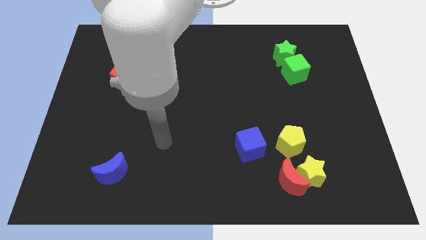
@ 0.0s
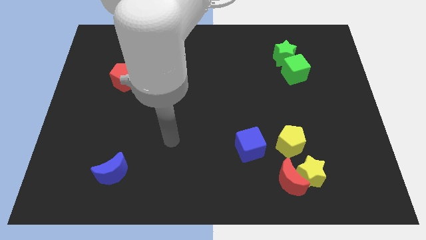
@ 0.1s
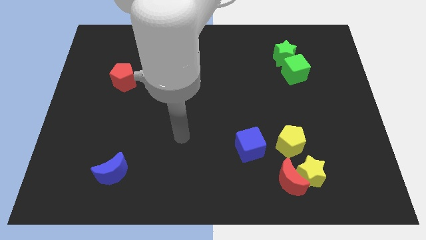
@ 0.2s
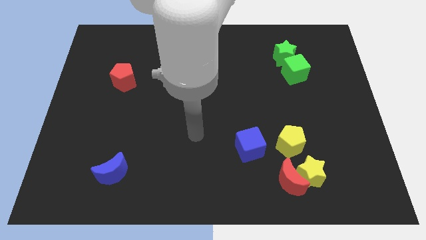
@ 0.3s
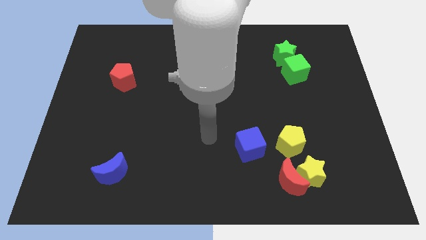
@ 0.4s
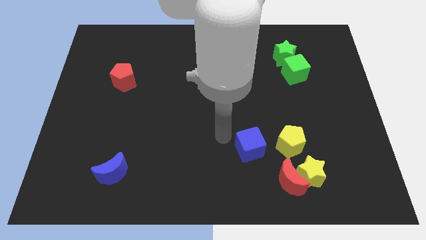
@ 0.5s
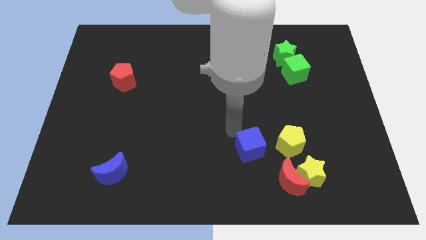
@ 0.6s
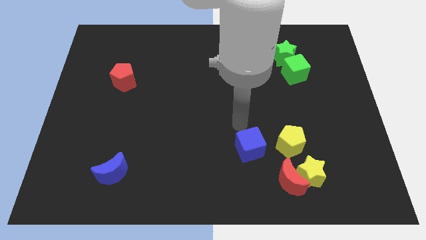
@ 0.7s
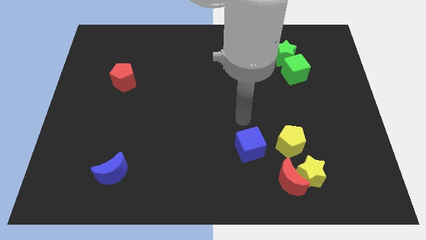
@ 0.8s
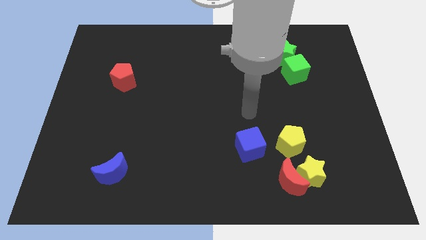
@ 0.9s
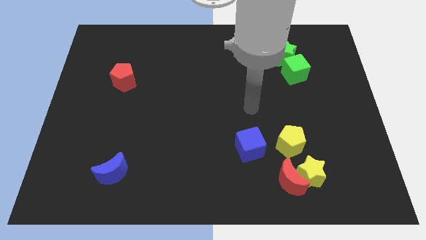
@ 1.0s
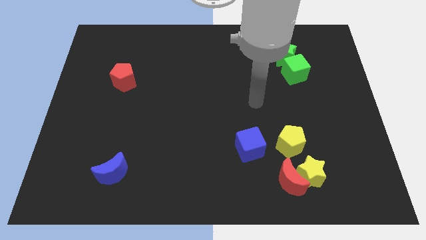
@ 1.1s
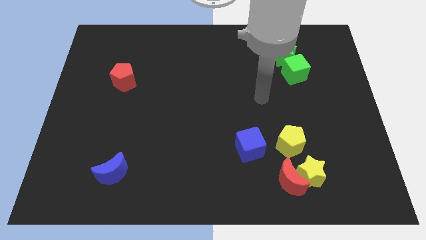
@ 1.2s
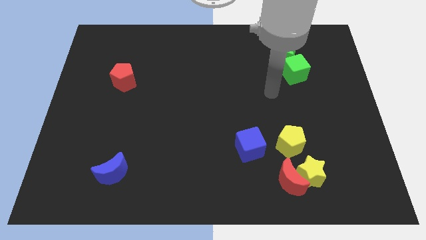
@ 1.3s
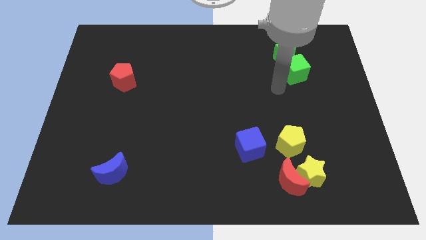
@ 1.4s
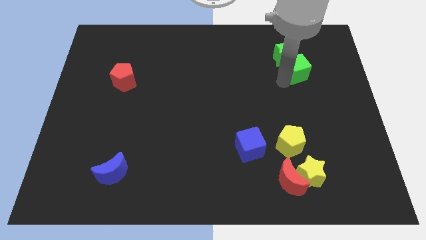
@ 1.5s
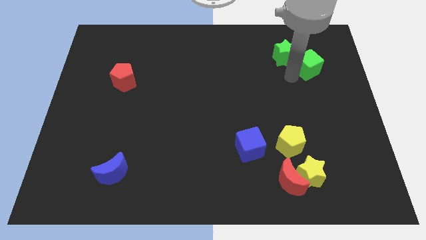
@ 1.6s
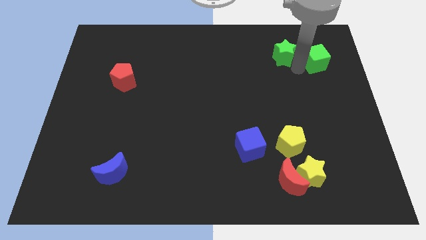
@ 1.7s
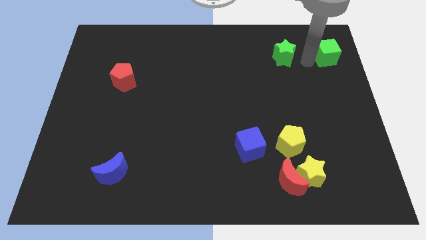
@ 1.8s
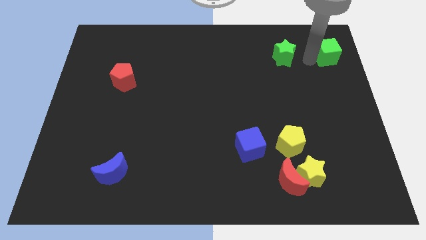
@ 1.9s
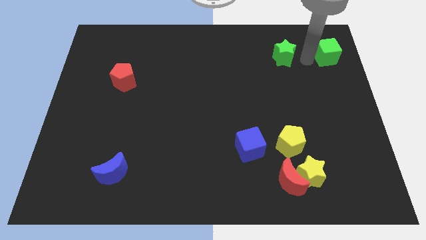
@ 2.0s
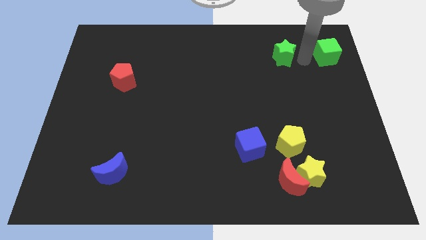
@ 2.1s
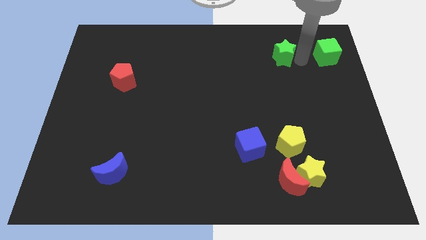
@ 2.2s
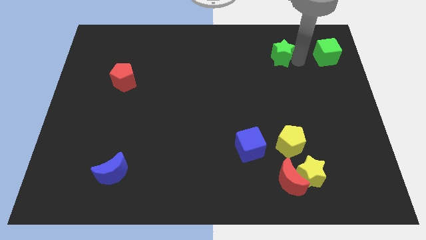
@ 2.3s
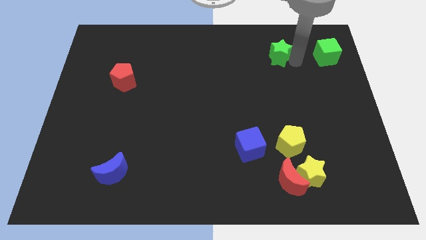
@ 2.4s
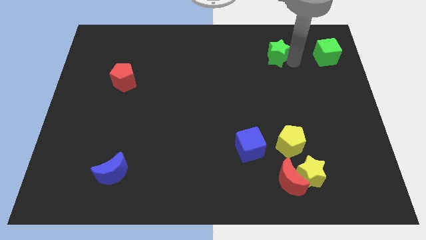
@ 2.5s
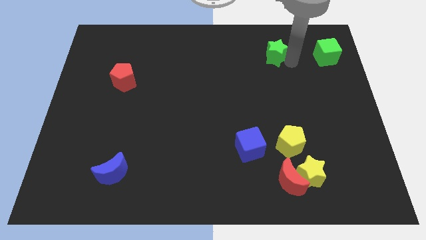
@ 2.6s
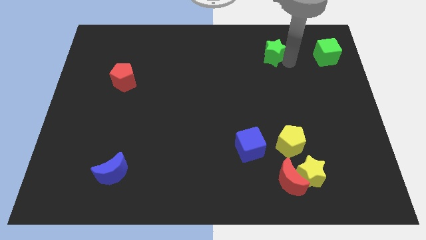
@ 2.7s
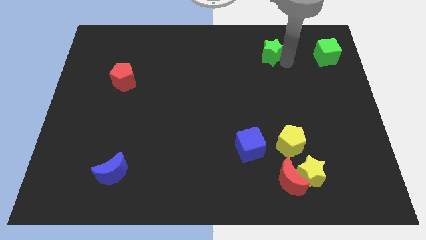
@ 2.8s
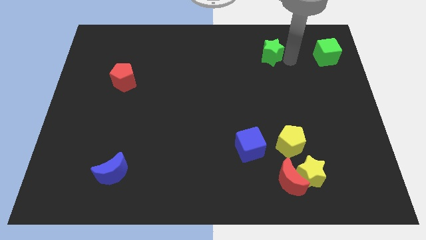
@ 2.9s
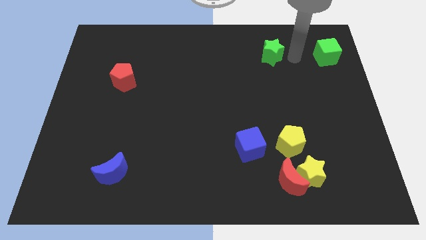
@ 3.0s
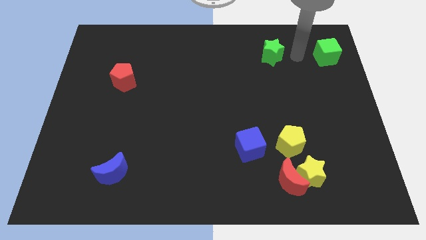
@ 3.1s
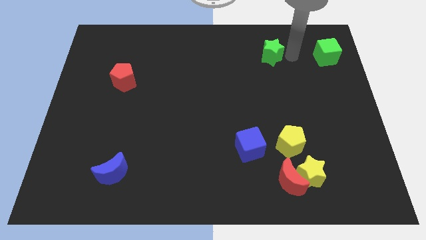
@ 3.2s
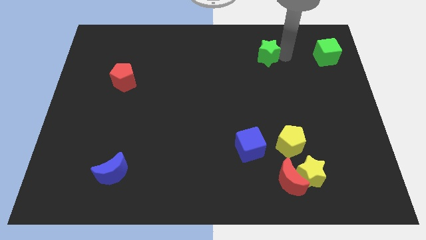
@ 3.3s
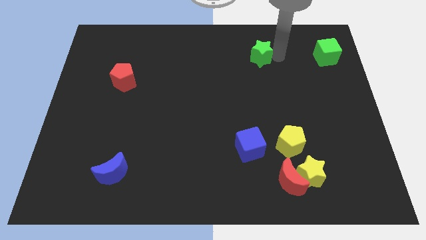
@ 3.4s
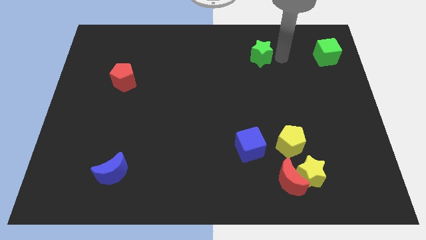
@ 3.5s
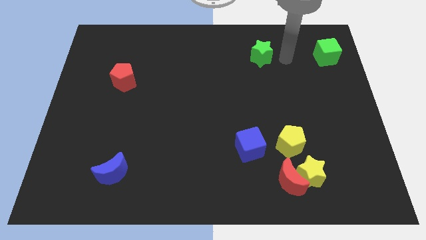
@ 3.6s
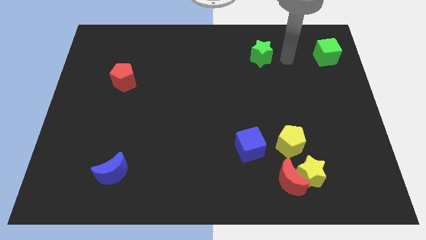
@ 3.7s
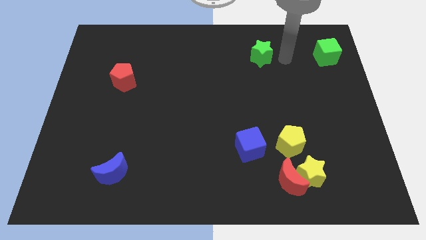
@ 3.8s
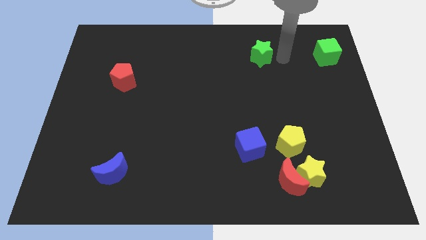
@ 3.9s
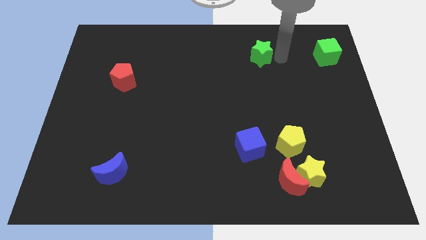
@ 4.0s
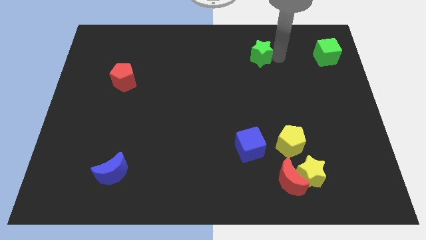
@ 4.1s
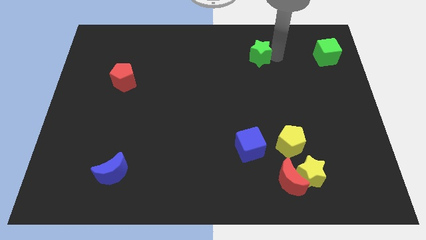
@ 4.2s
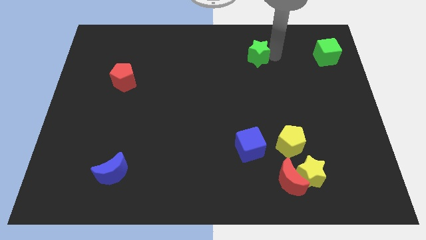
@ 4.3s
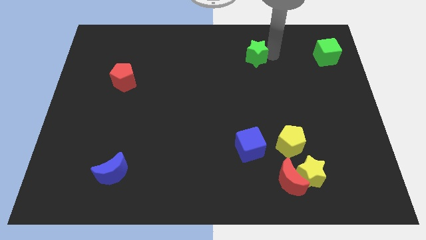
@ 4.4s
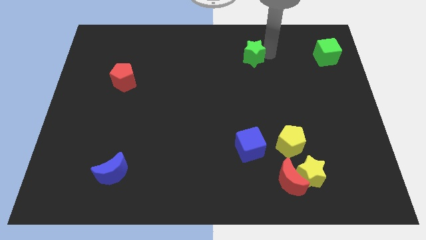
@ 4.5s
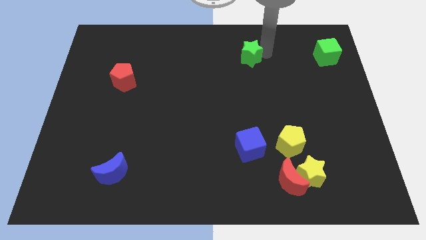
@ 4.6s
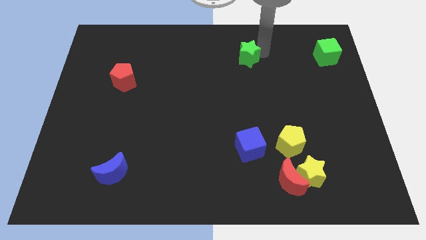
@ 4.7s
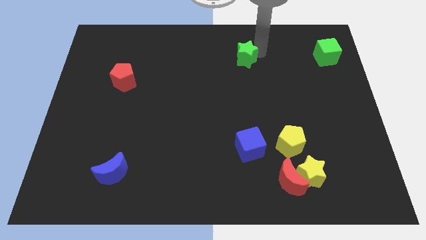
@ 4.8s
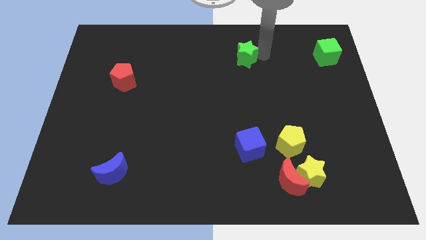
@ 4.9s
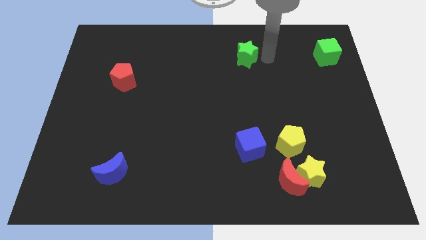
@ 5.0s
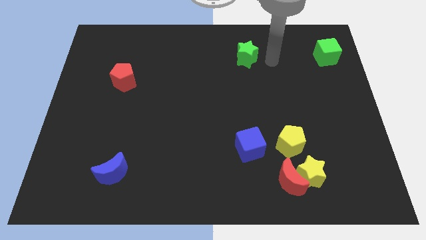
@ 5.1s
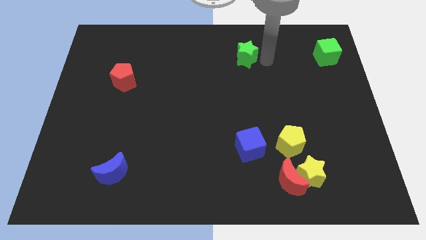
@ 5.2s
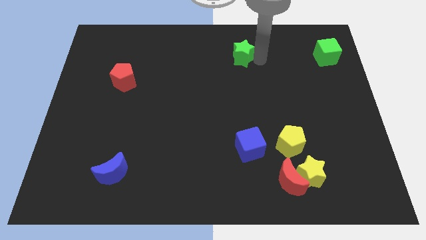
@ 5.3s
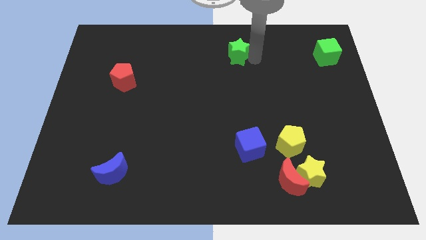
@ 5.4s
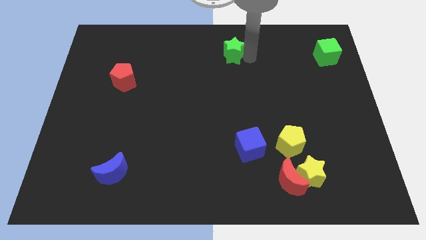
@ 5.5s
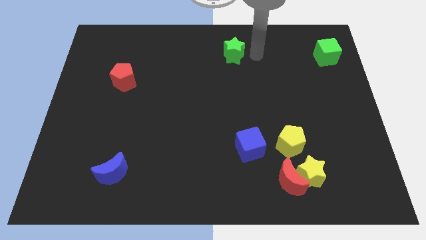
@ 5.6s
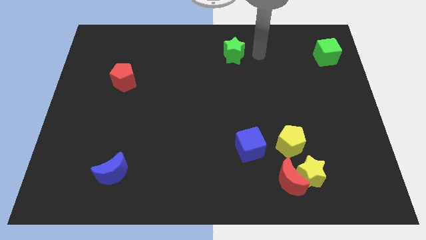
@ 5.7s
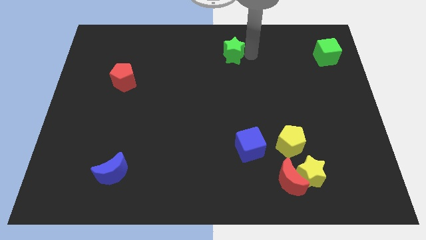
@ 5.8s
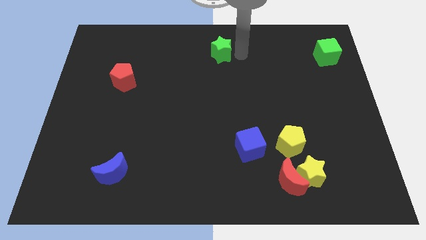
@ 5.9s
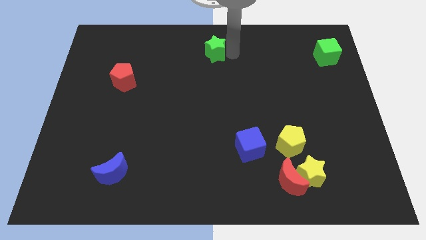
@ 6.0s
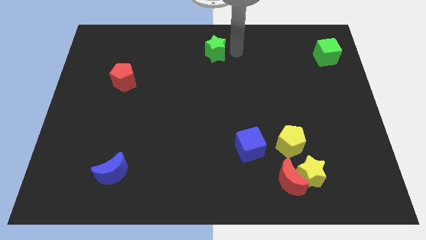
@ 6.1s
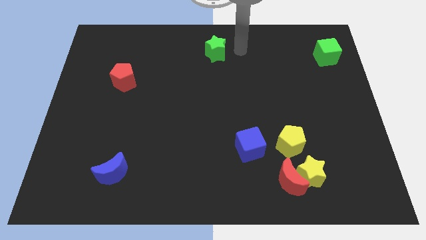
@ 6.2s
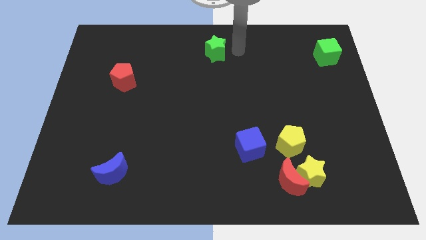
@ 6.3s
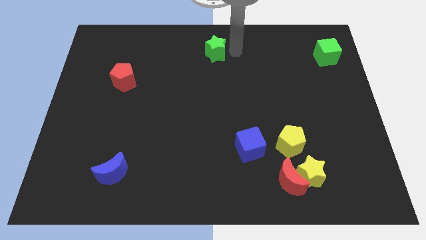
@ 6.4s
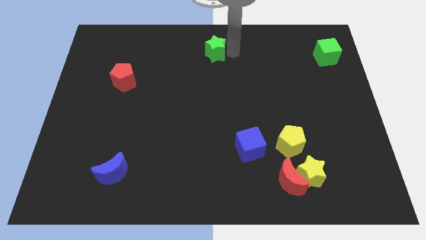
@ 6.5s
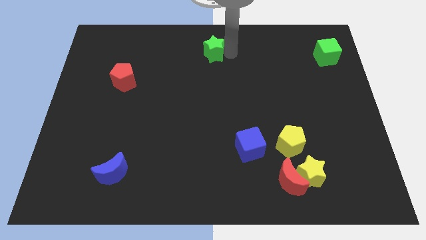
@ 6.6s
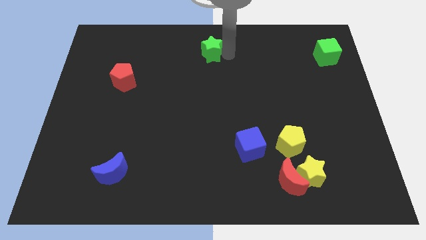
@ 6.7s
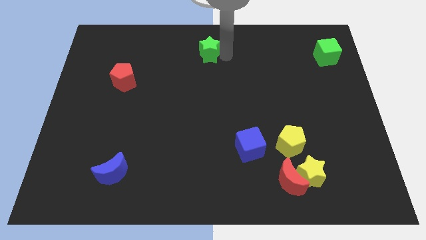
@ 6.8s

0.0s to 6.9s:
slide the green star left

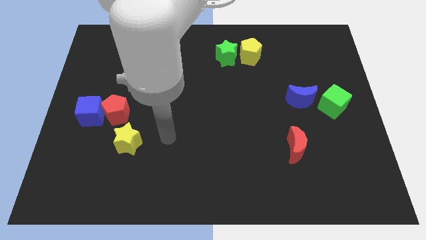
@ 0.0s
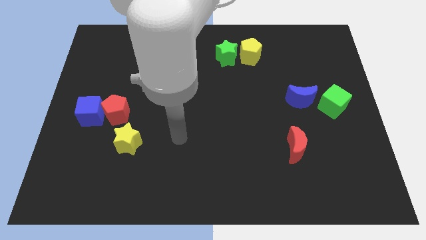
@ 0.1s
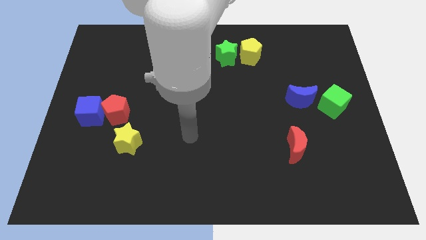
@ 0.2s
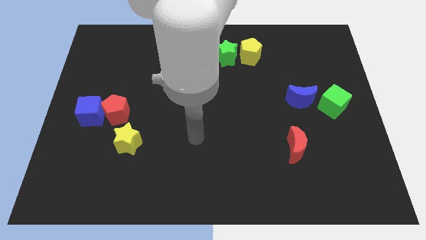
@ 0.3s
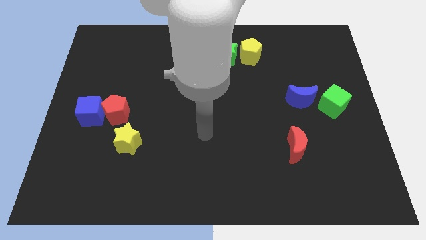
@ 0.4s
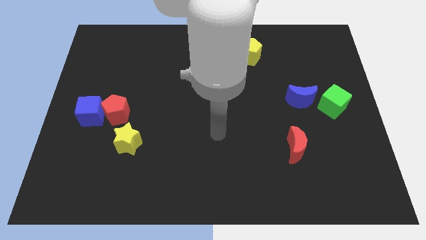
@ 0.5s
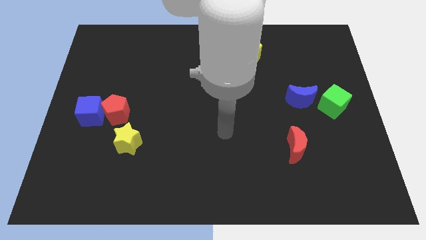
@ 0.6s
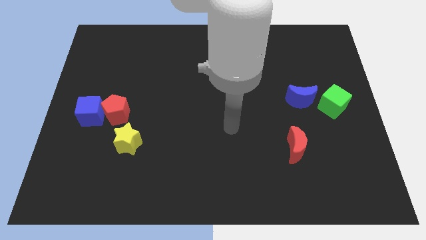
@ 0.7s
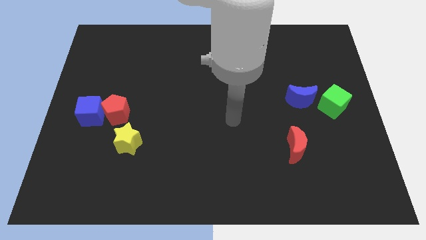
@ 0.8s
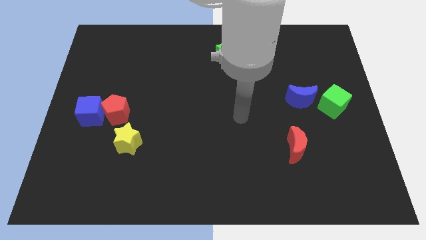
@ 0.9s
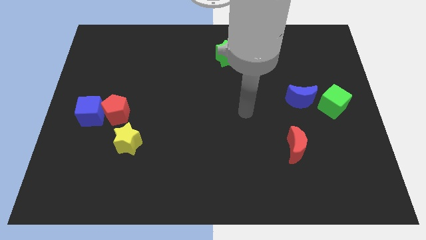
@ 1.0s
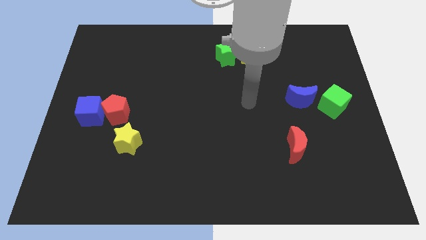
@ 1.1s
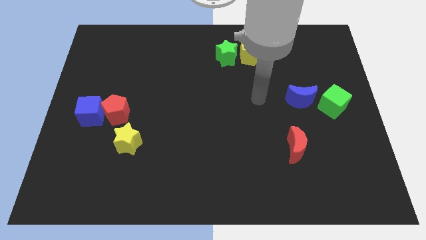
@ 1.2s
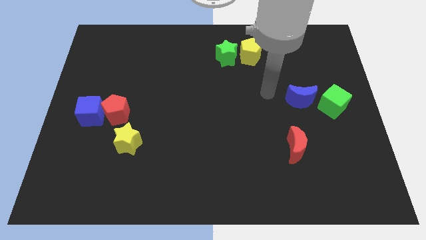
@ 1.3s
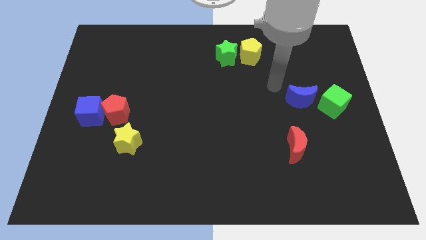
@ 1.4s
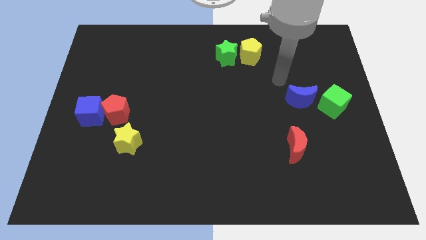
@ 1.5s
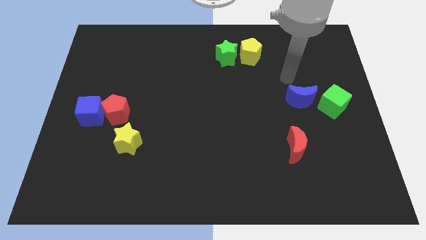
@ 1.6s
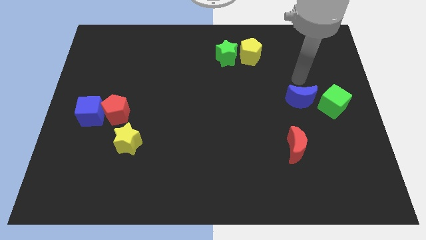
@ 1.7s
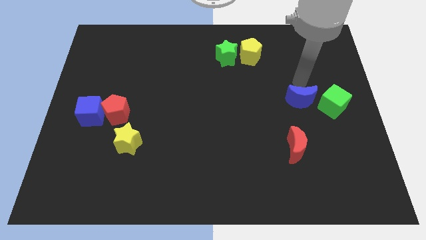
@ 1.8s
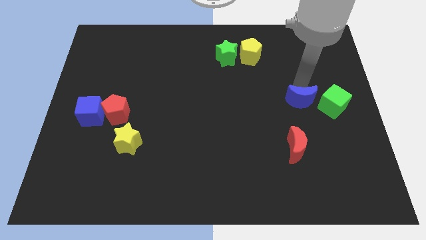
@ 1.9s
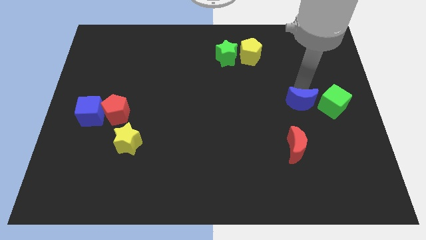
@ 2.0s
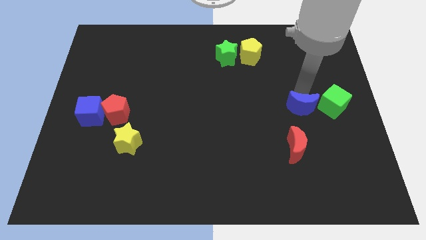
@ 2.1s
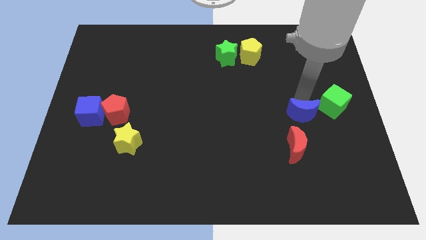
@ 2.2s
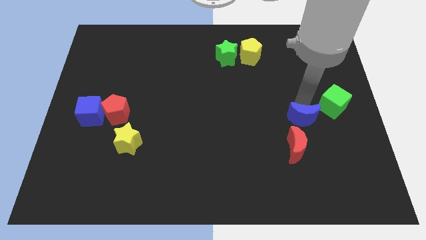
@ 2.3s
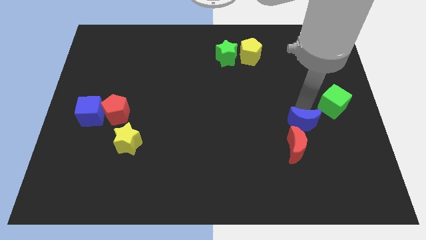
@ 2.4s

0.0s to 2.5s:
slide the blue moon downwards a bit
